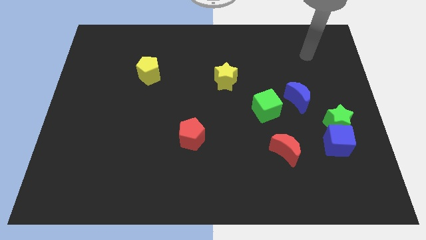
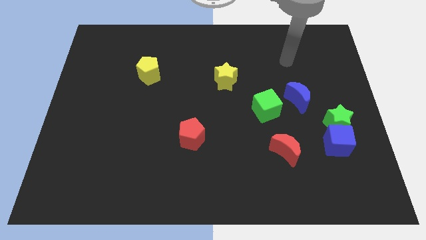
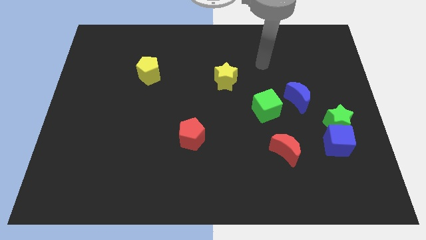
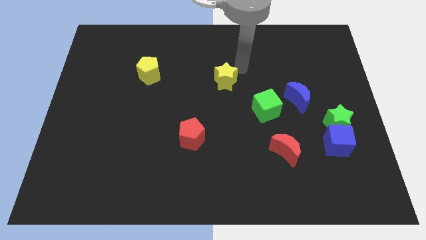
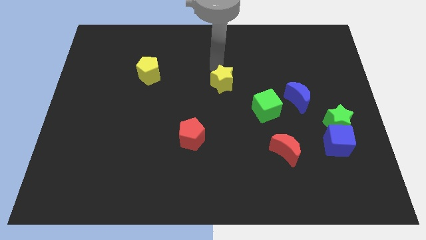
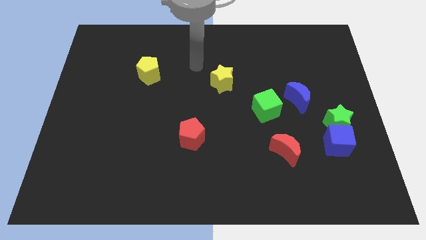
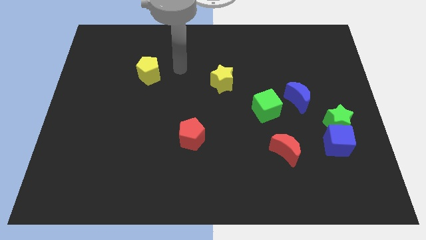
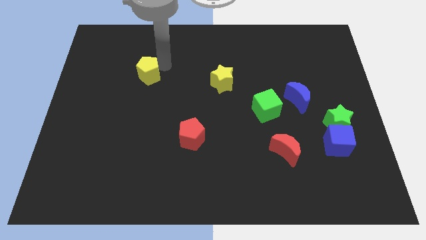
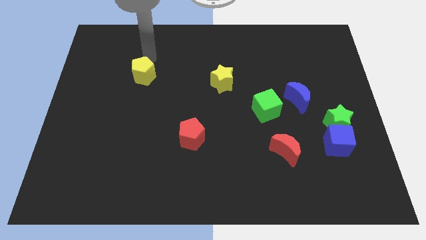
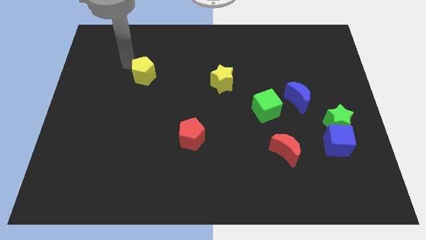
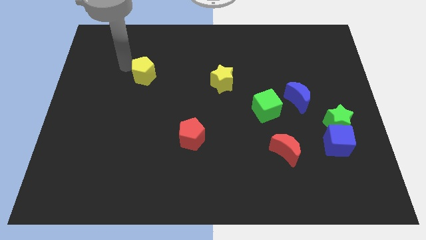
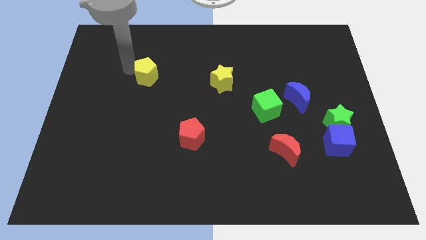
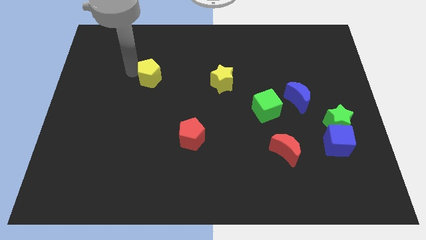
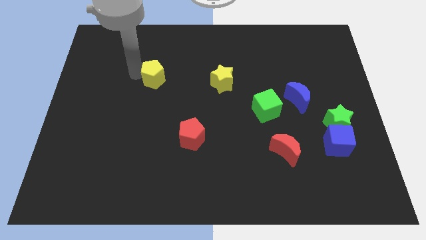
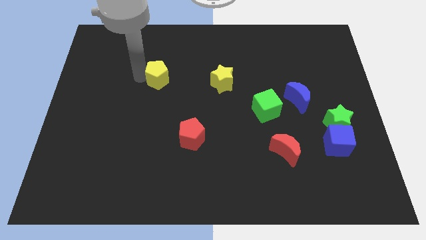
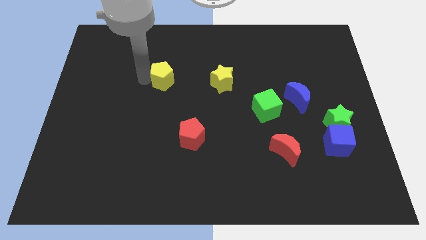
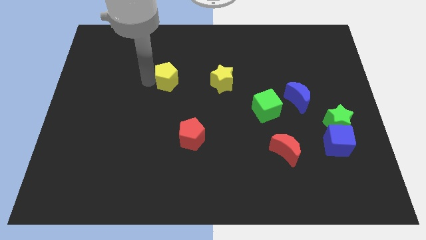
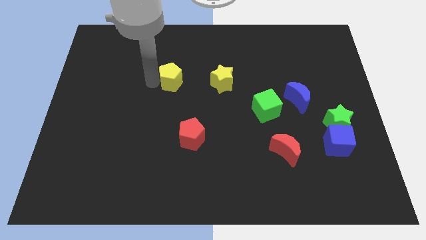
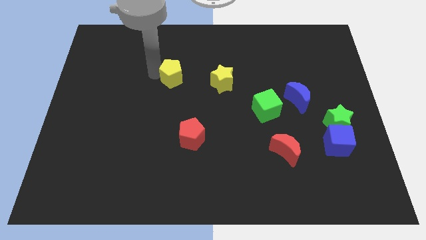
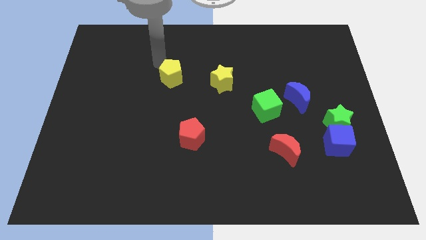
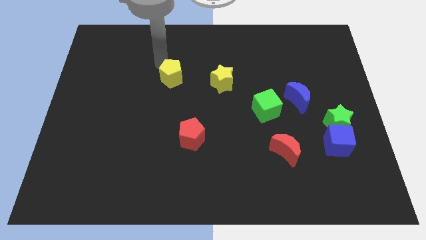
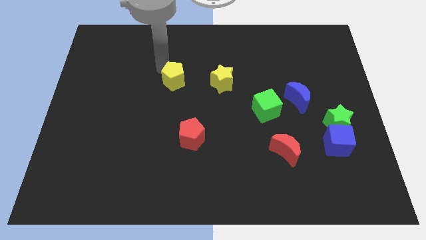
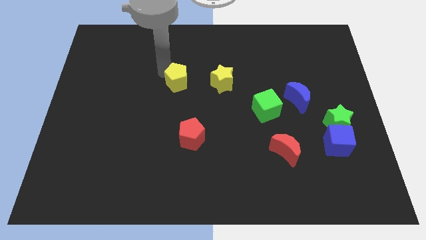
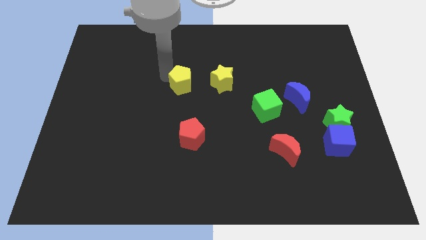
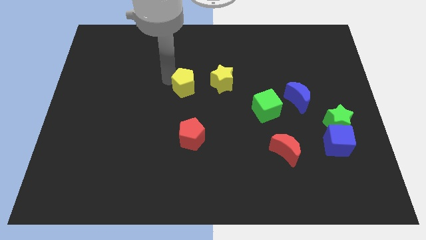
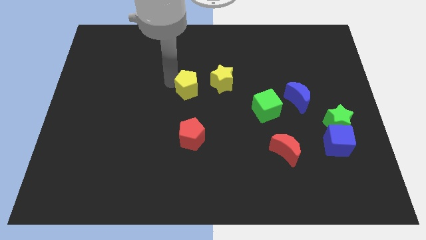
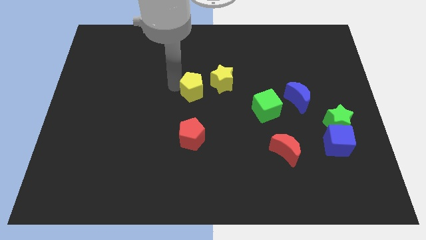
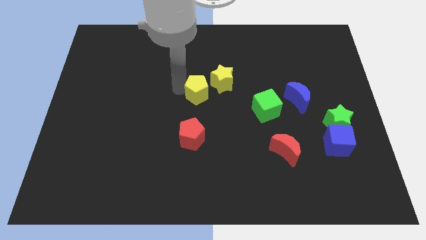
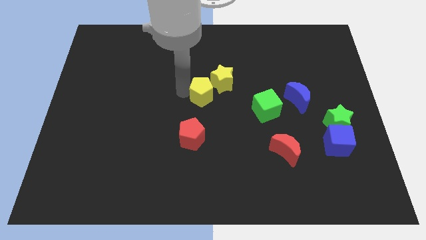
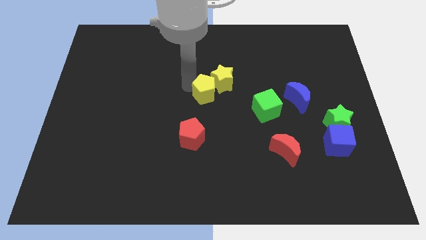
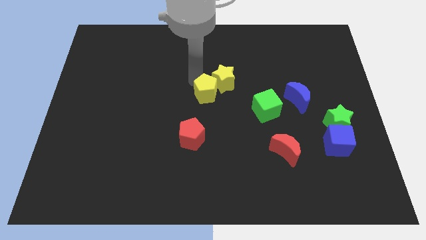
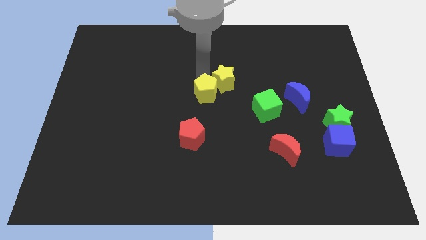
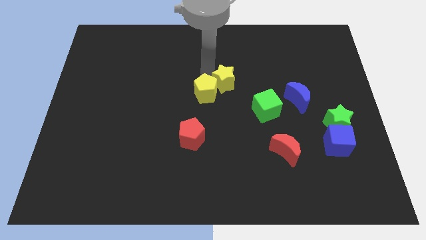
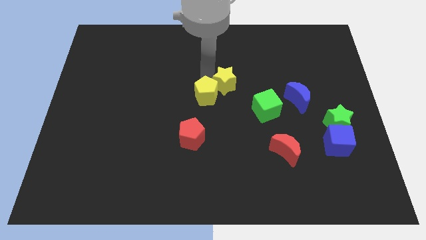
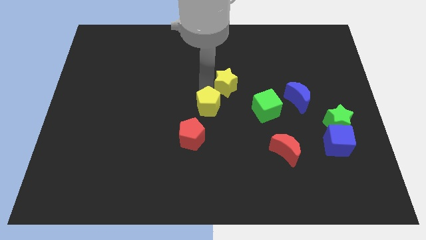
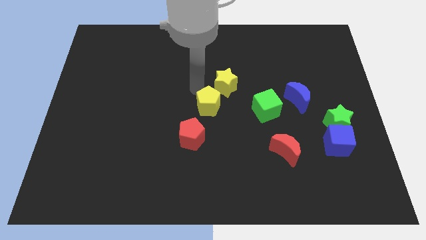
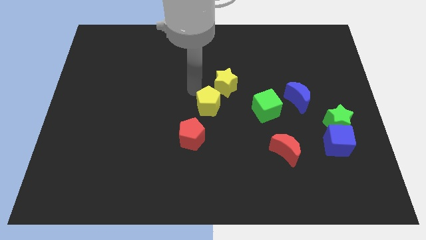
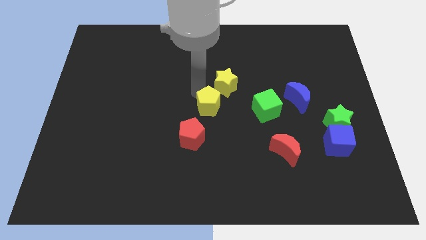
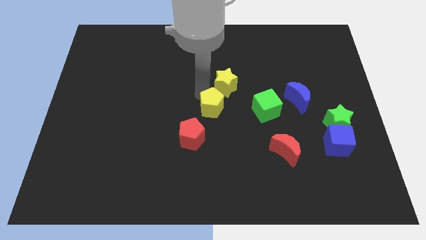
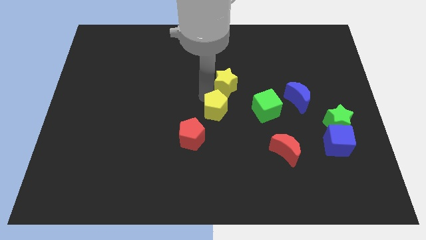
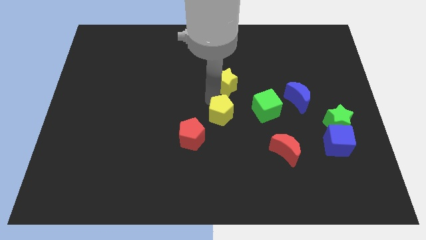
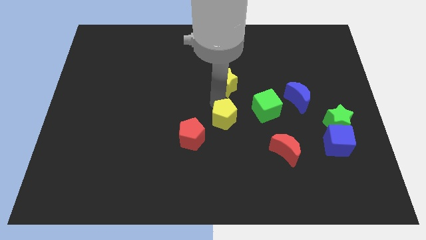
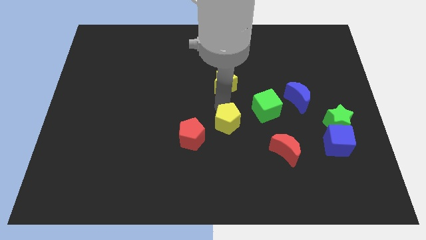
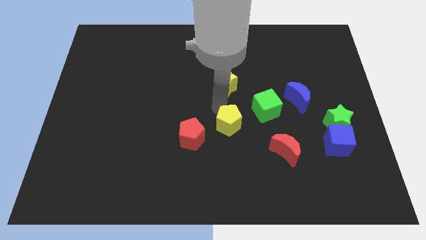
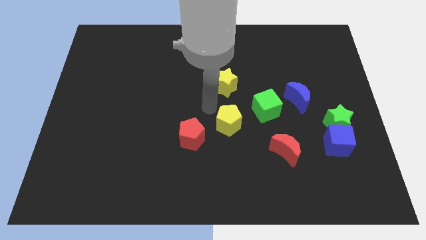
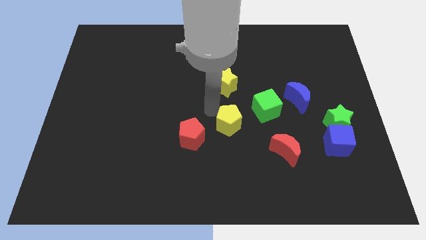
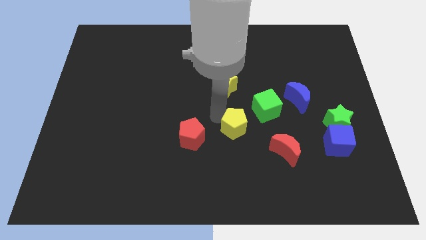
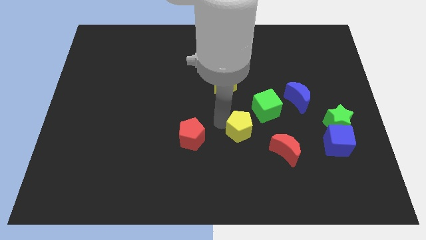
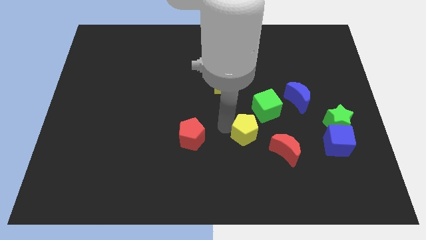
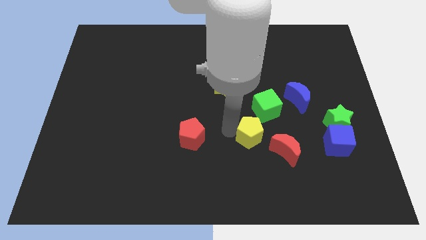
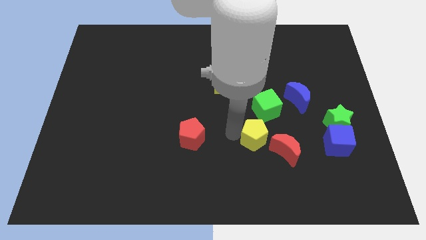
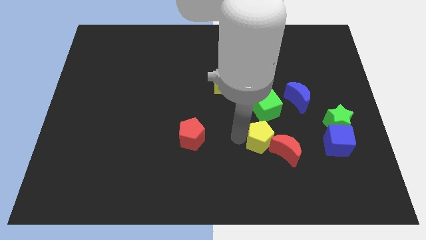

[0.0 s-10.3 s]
put the yellow pentagon next to the red moon

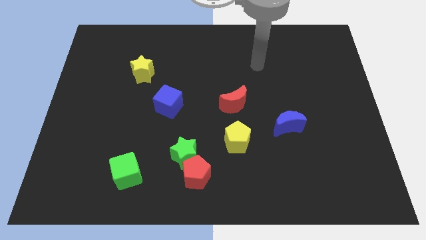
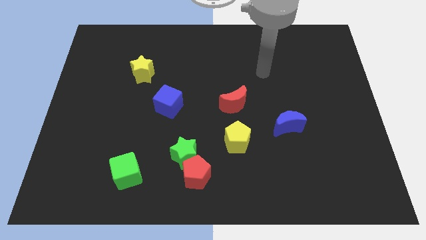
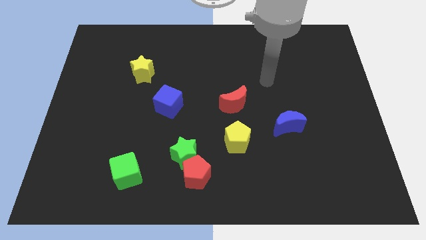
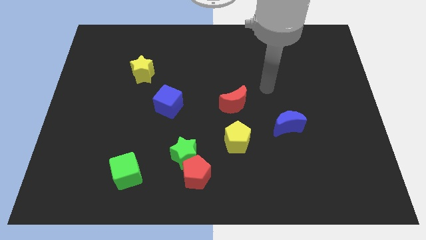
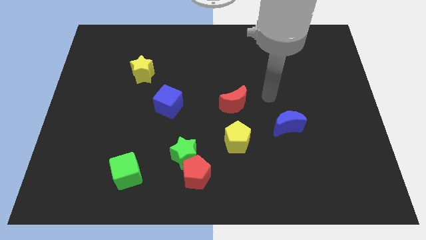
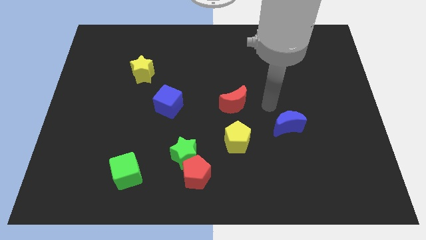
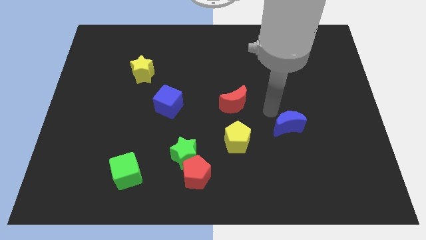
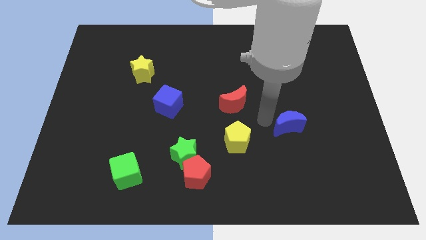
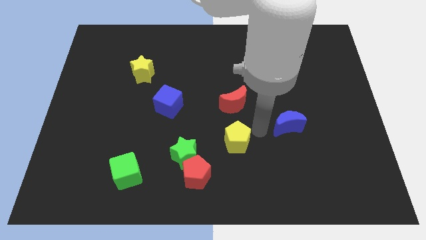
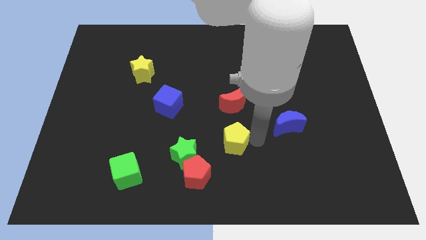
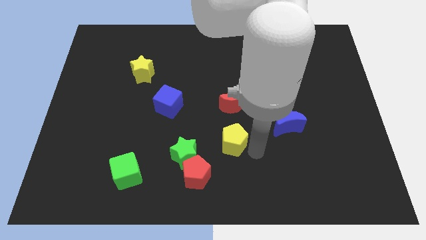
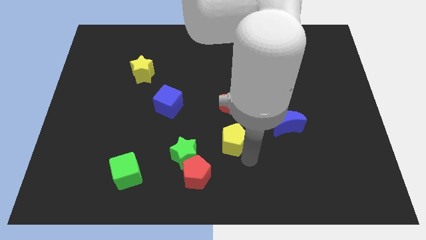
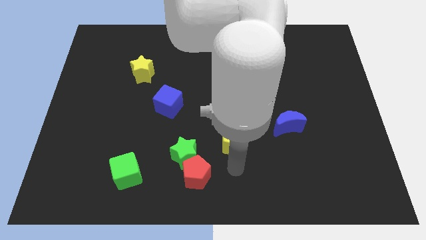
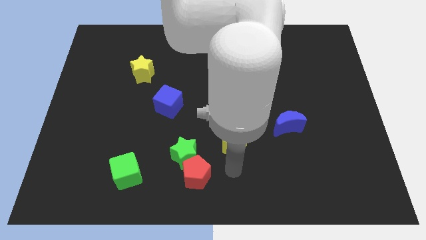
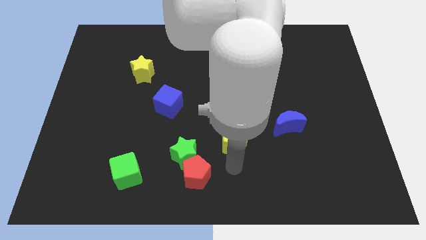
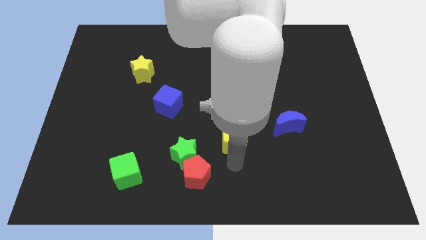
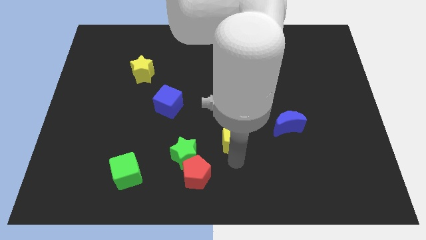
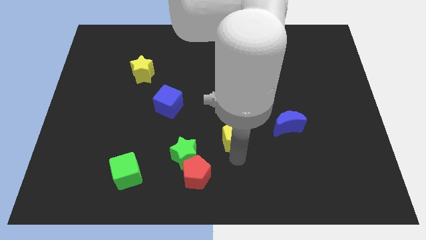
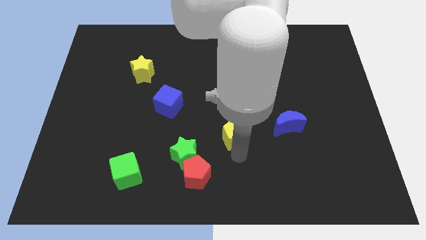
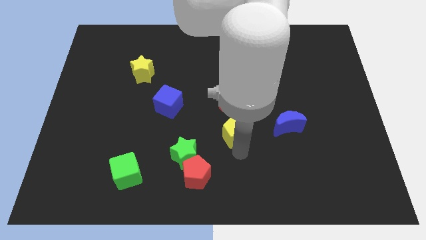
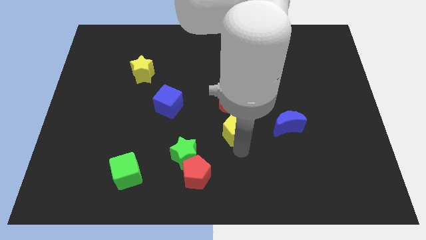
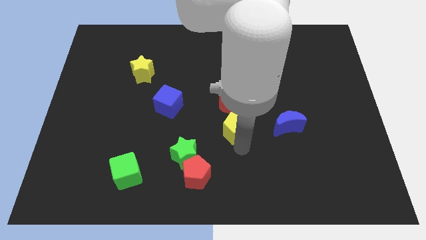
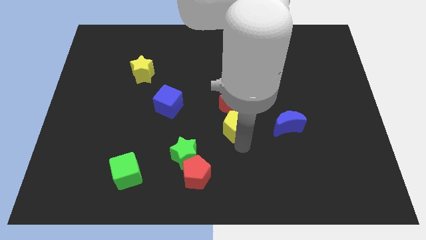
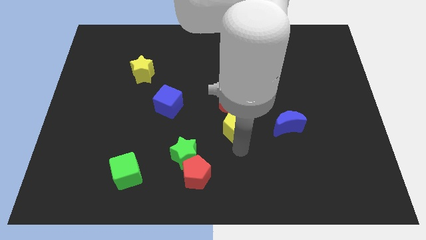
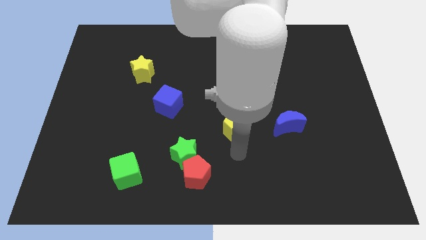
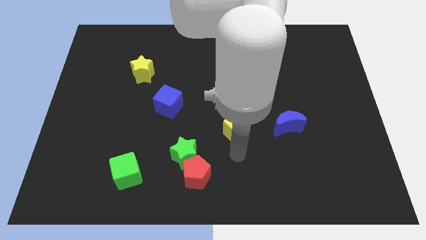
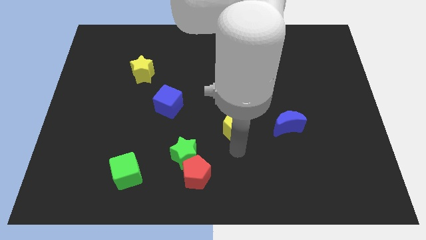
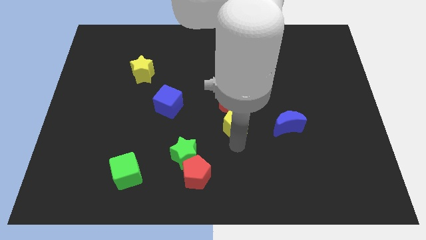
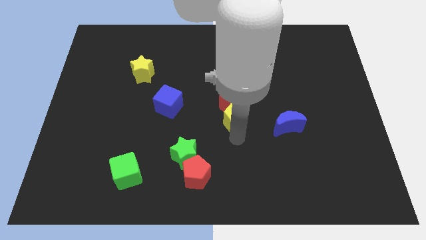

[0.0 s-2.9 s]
move the yellow pentagon towards the red moon
